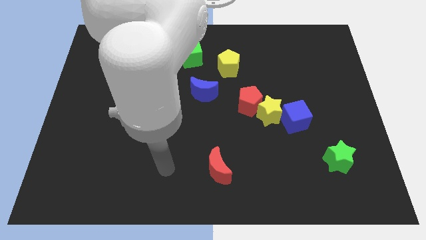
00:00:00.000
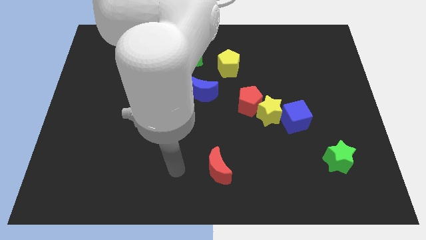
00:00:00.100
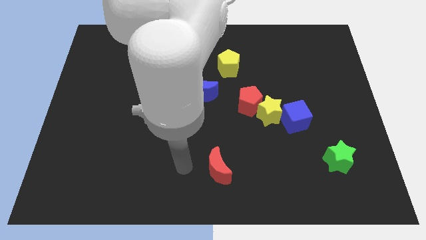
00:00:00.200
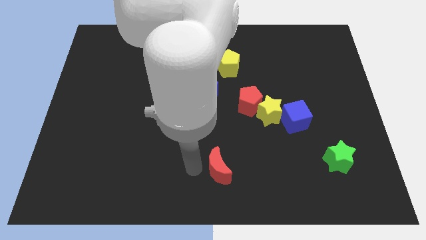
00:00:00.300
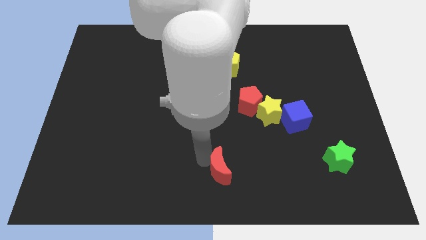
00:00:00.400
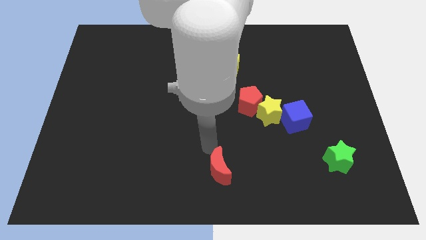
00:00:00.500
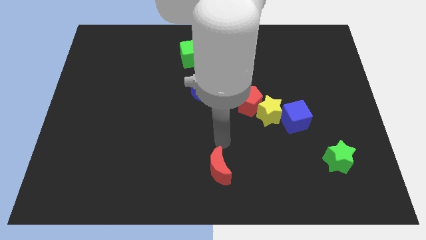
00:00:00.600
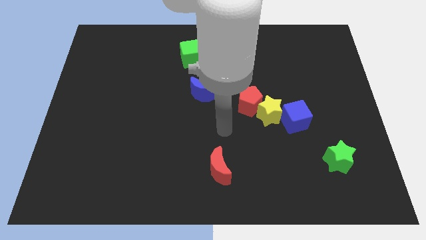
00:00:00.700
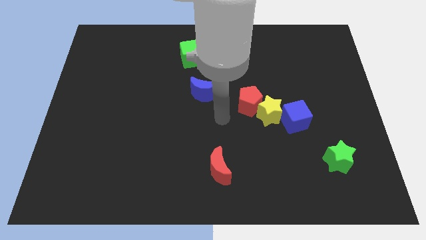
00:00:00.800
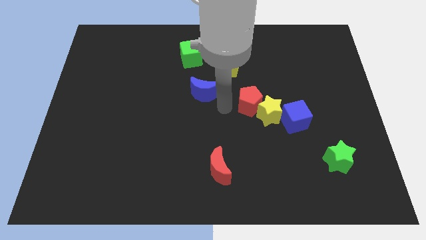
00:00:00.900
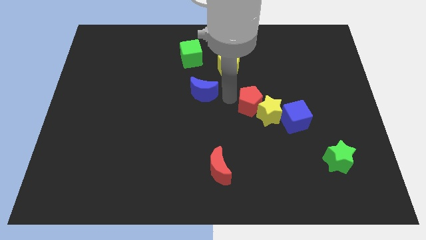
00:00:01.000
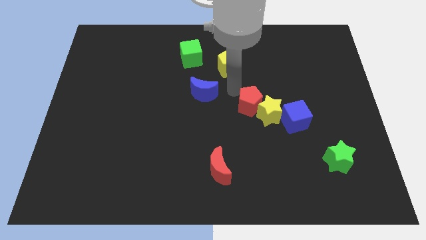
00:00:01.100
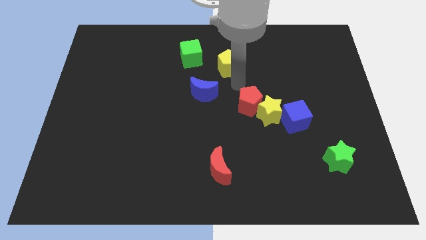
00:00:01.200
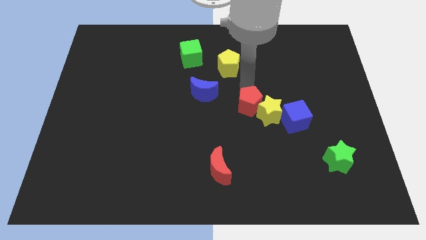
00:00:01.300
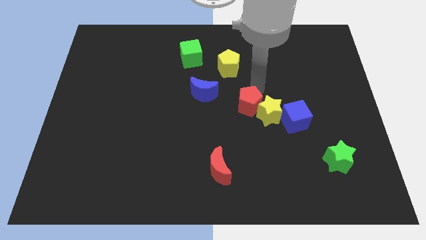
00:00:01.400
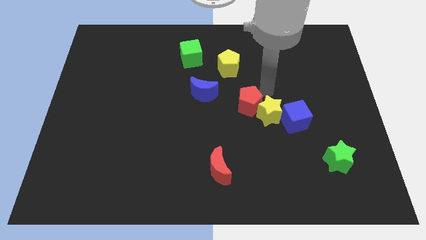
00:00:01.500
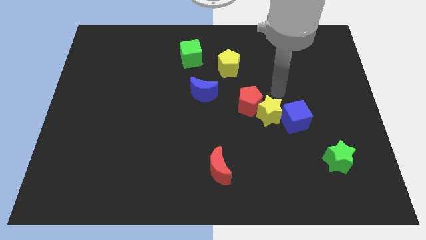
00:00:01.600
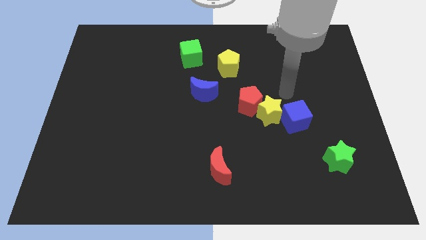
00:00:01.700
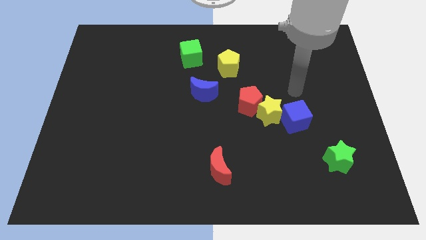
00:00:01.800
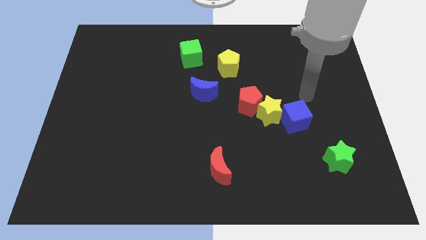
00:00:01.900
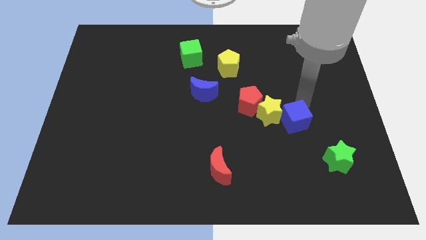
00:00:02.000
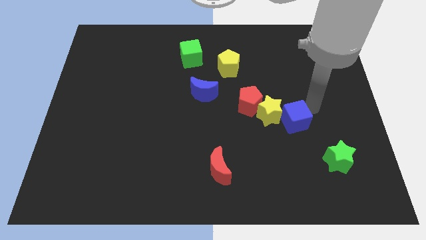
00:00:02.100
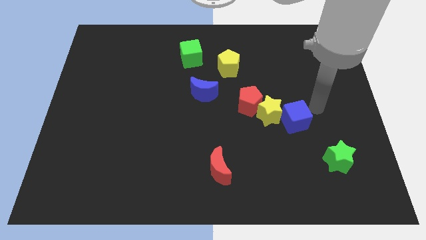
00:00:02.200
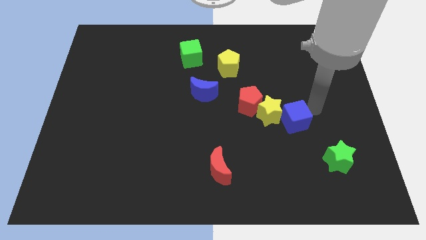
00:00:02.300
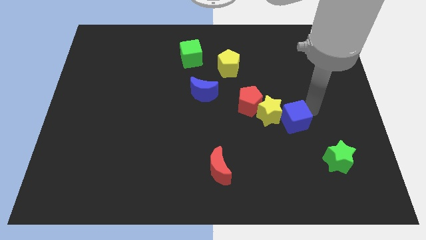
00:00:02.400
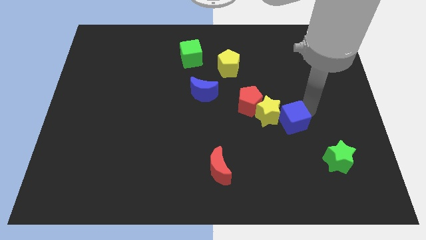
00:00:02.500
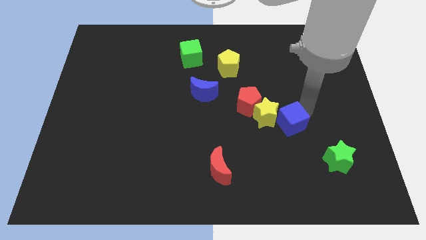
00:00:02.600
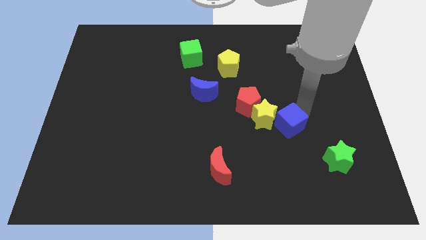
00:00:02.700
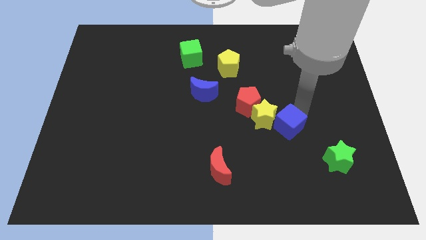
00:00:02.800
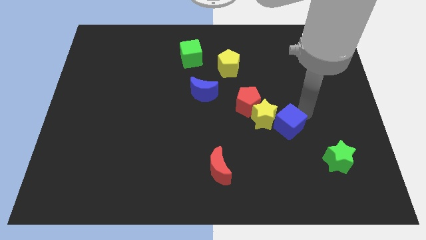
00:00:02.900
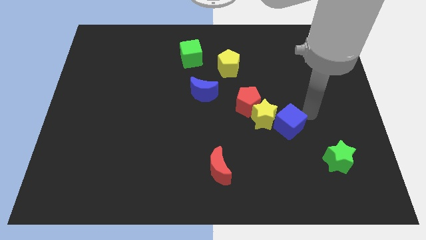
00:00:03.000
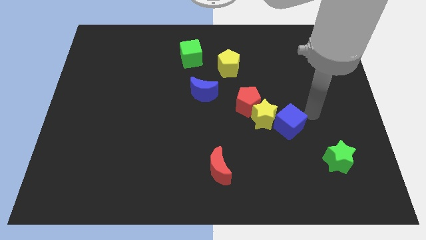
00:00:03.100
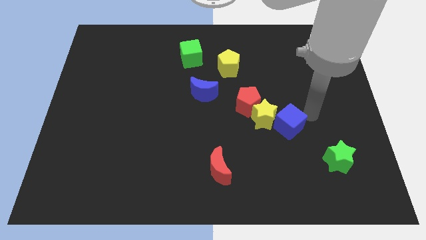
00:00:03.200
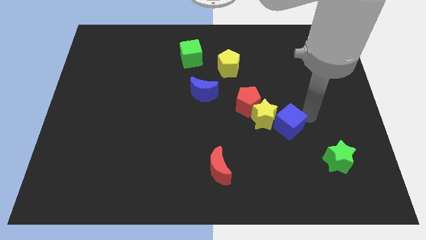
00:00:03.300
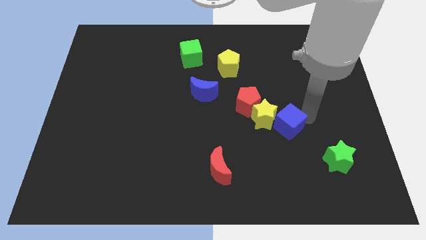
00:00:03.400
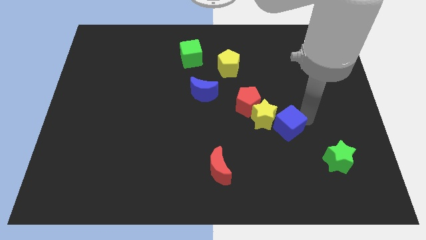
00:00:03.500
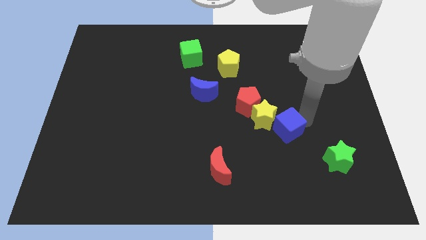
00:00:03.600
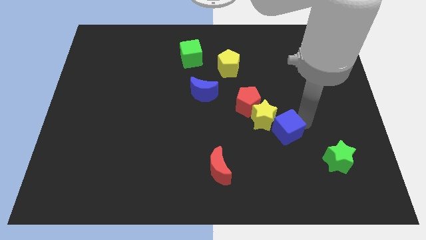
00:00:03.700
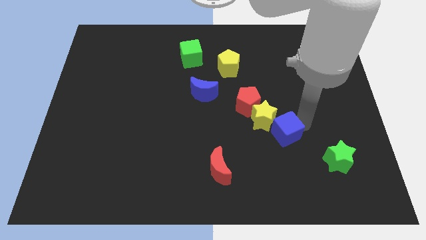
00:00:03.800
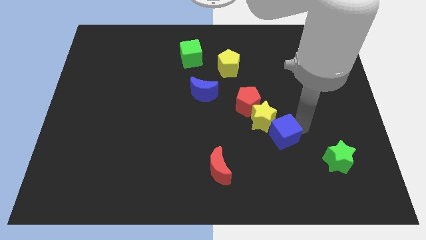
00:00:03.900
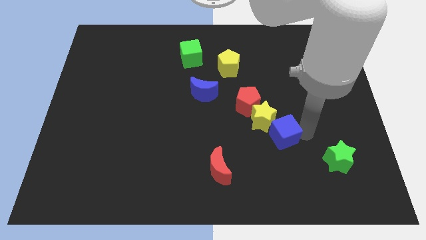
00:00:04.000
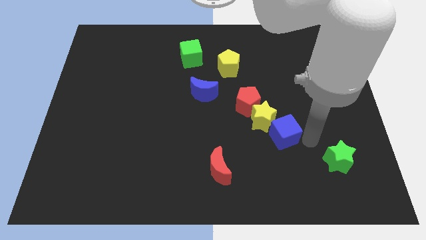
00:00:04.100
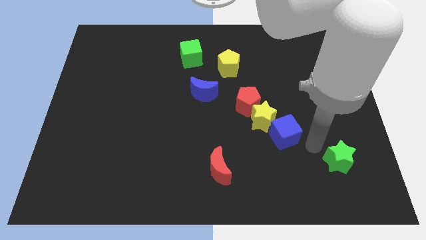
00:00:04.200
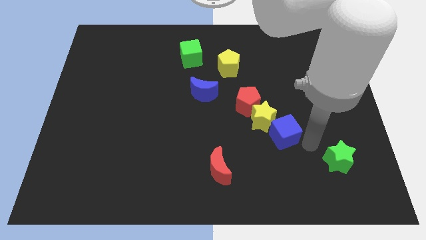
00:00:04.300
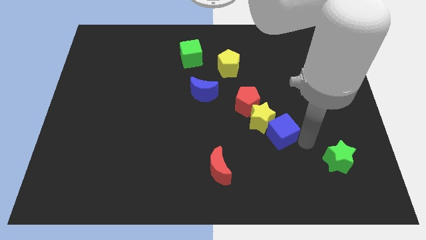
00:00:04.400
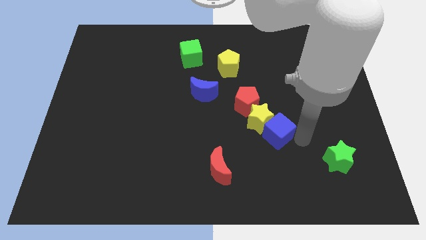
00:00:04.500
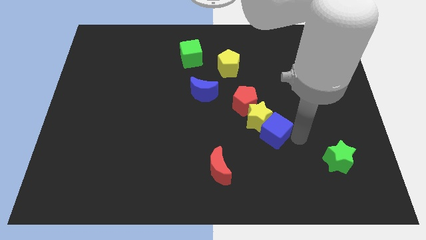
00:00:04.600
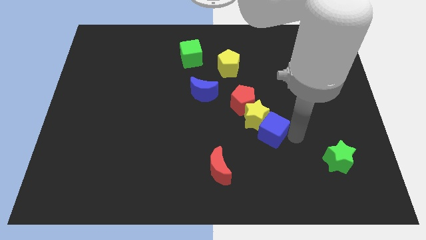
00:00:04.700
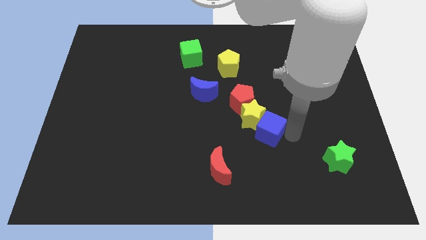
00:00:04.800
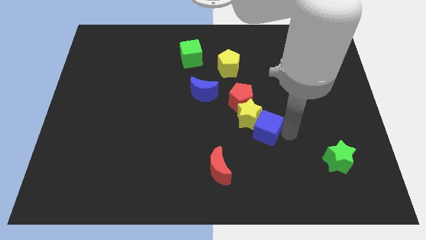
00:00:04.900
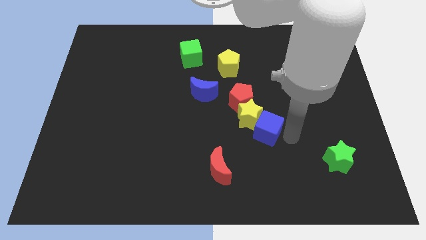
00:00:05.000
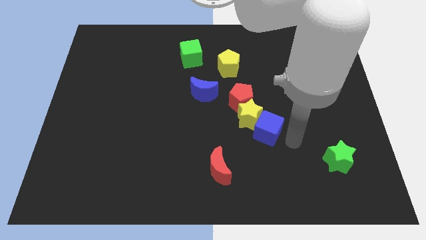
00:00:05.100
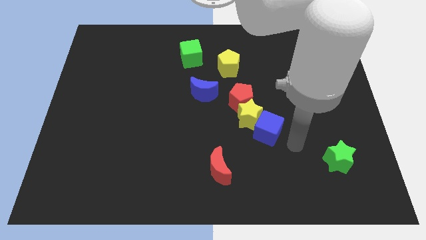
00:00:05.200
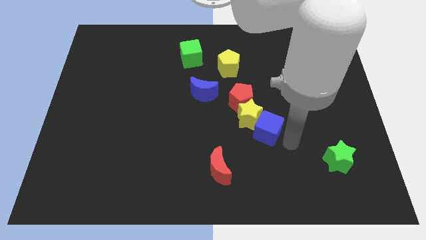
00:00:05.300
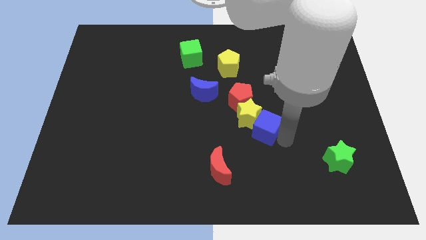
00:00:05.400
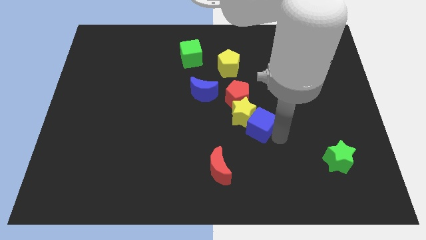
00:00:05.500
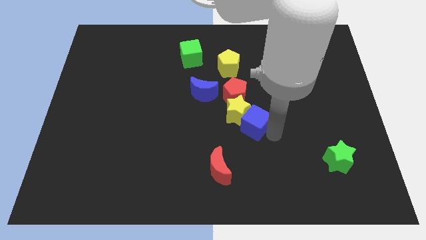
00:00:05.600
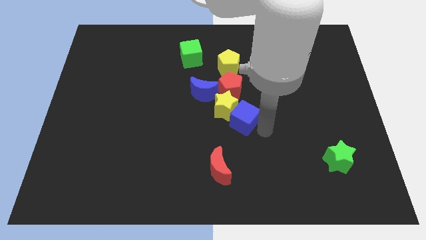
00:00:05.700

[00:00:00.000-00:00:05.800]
slide the blue cube to the bottom right side of the blue moon

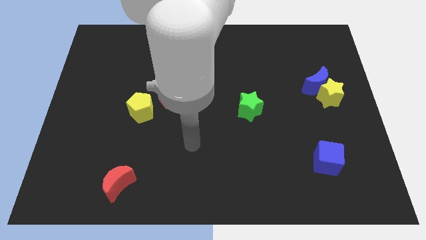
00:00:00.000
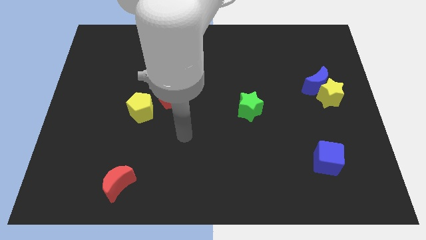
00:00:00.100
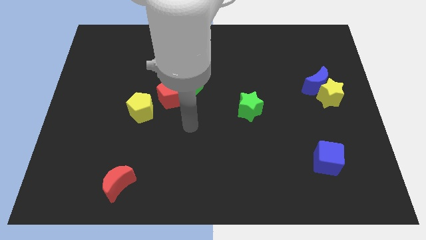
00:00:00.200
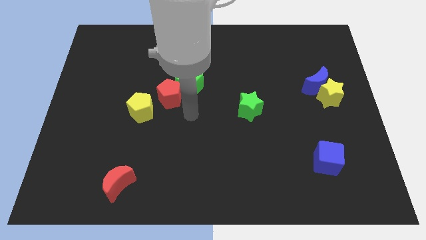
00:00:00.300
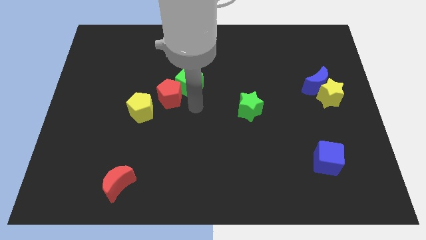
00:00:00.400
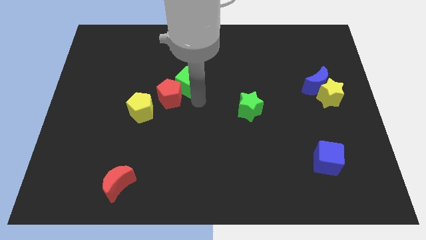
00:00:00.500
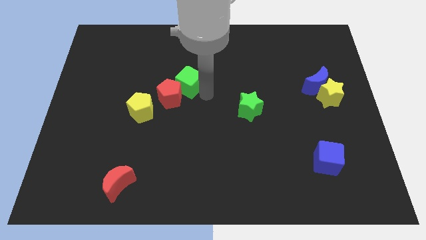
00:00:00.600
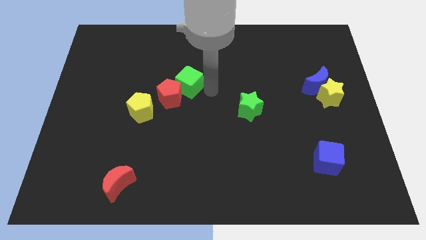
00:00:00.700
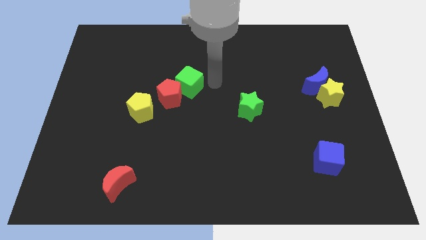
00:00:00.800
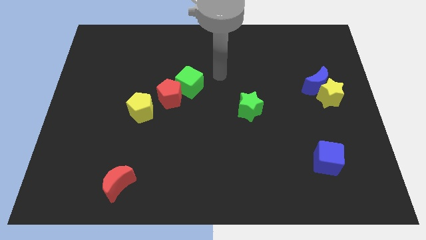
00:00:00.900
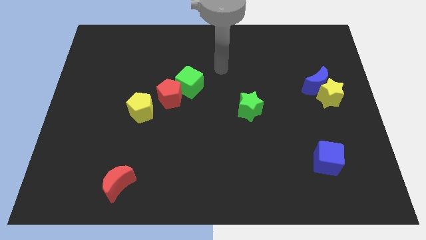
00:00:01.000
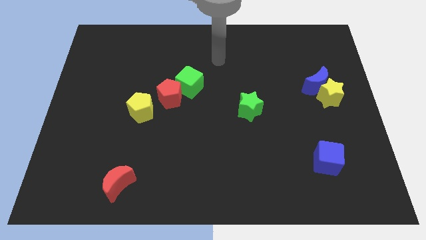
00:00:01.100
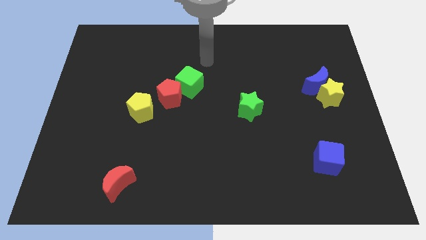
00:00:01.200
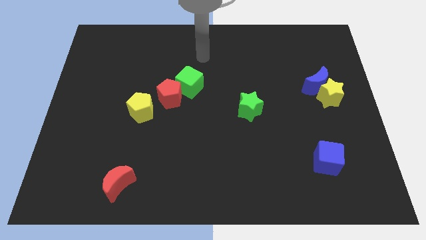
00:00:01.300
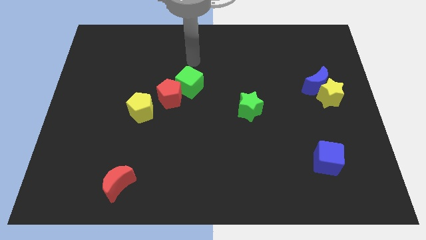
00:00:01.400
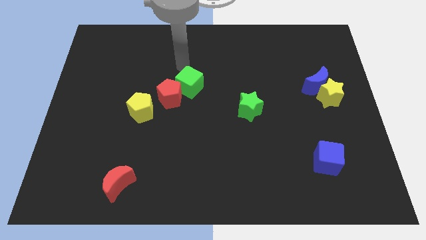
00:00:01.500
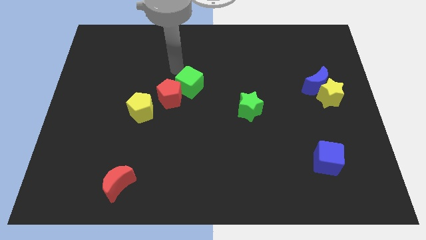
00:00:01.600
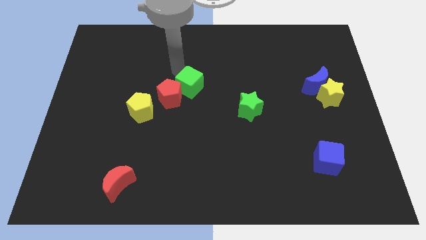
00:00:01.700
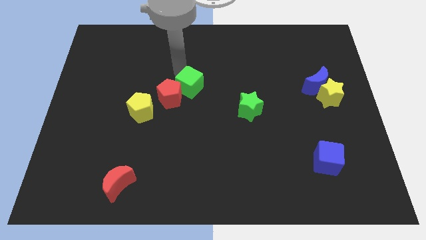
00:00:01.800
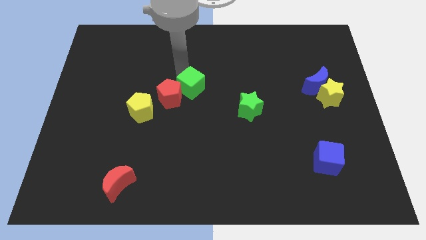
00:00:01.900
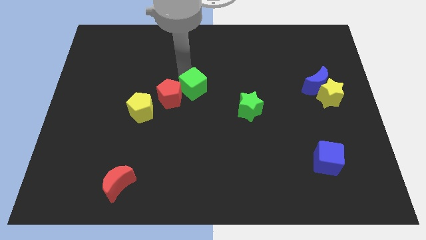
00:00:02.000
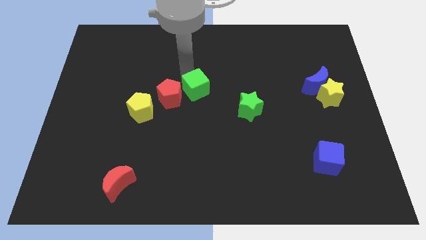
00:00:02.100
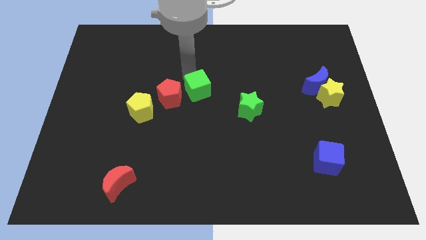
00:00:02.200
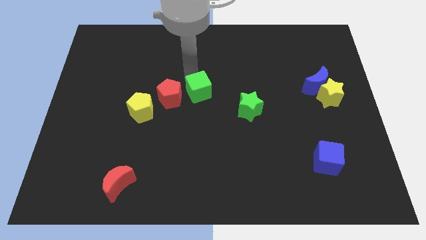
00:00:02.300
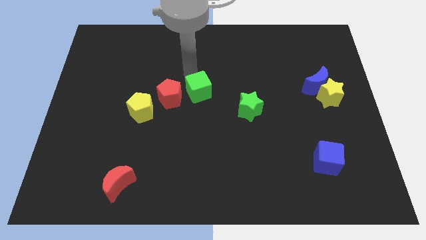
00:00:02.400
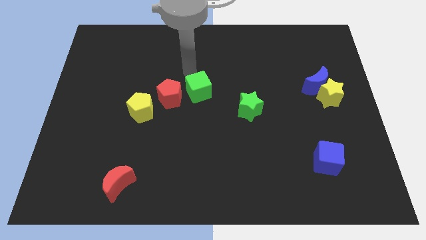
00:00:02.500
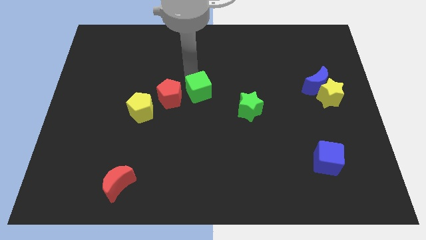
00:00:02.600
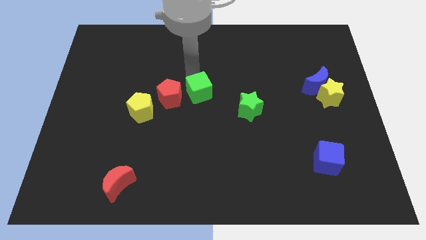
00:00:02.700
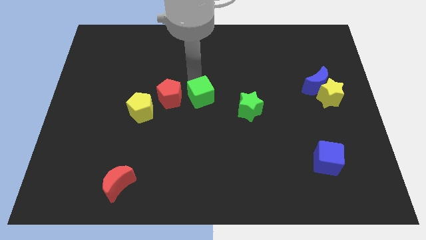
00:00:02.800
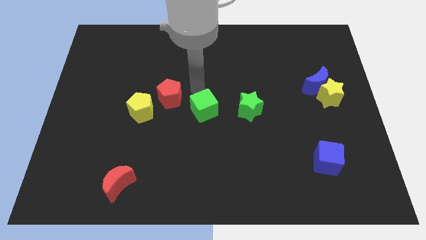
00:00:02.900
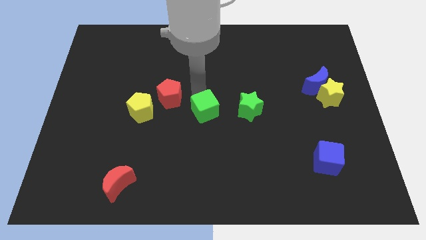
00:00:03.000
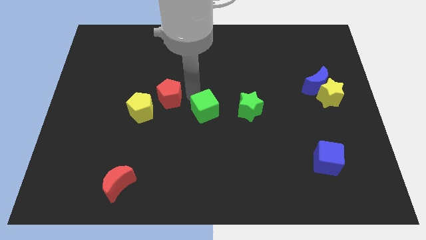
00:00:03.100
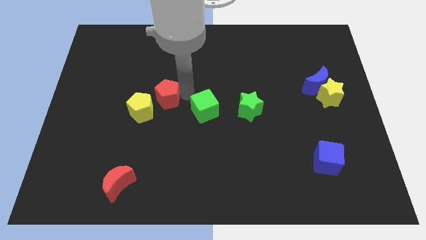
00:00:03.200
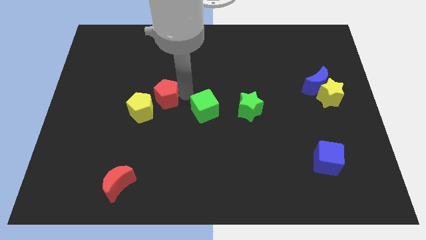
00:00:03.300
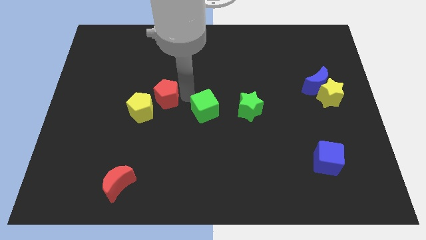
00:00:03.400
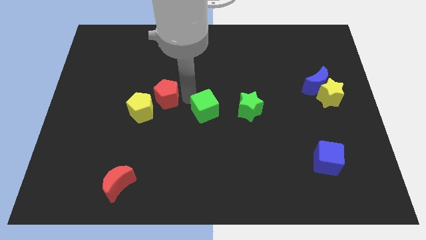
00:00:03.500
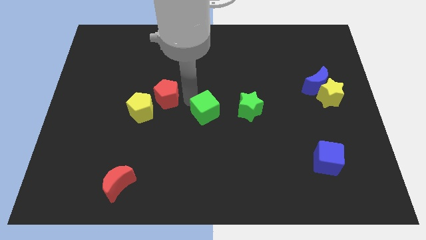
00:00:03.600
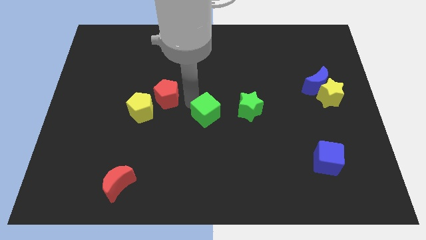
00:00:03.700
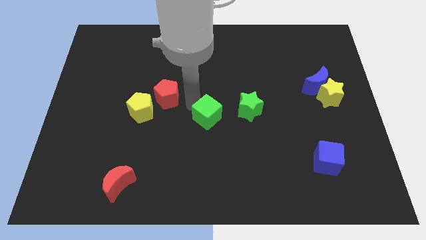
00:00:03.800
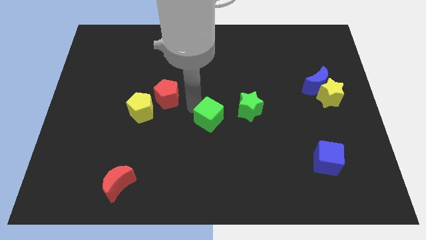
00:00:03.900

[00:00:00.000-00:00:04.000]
push the green cube diagonally down and to the left of the green star
